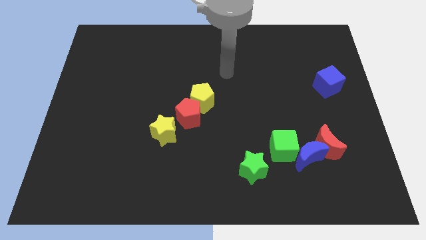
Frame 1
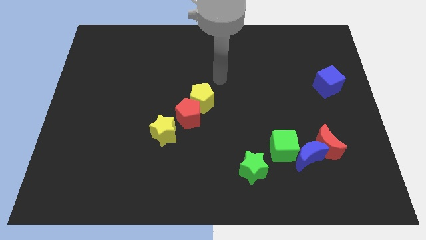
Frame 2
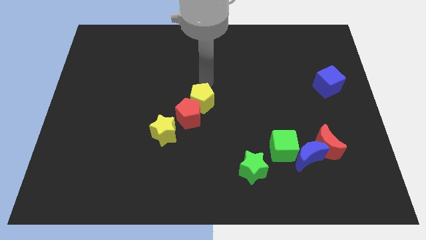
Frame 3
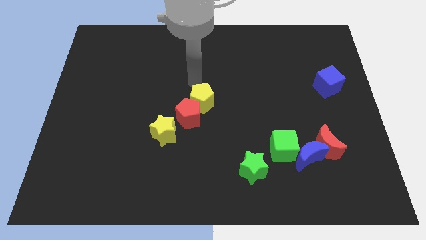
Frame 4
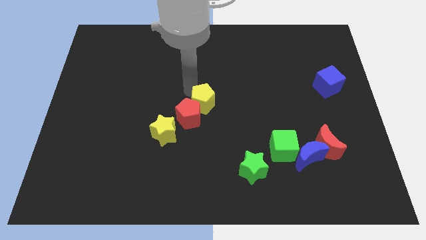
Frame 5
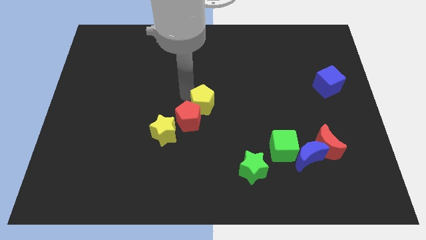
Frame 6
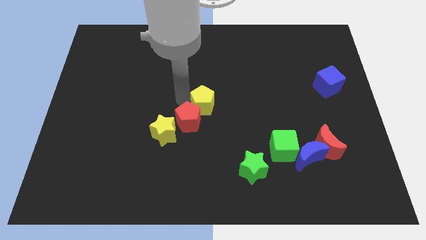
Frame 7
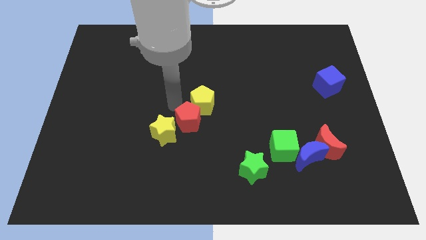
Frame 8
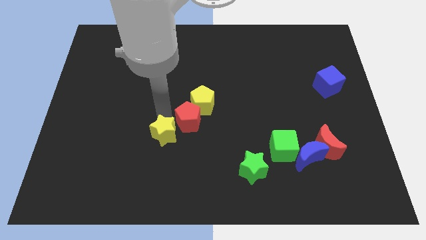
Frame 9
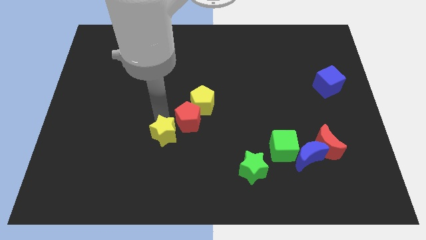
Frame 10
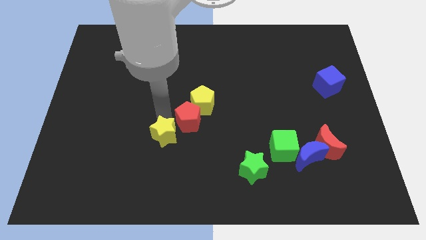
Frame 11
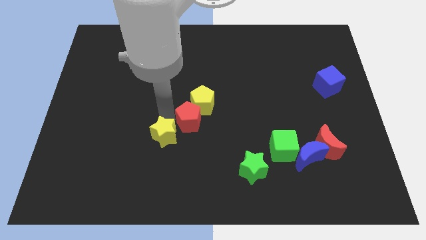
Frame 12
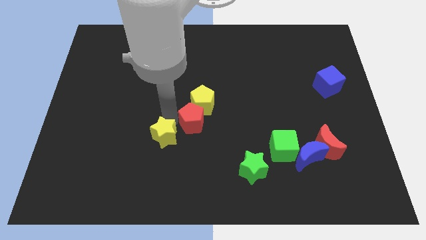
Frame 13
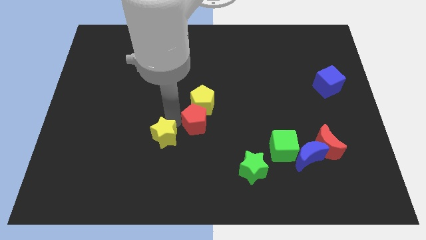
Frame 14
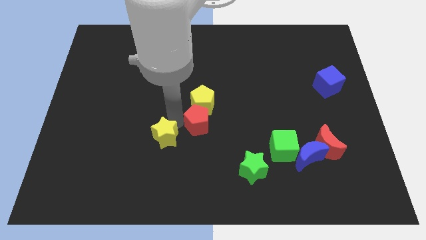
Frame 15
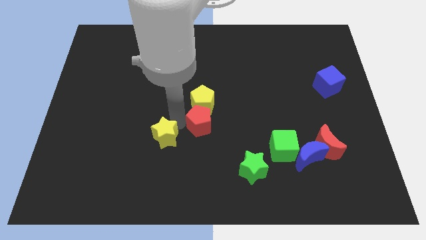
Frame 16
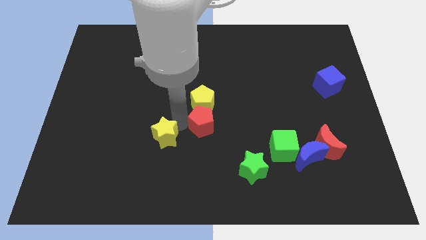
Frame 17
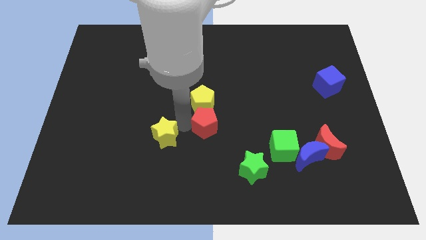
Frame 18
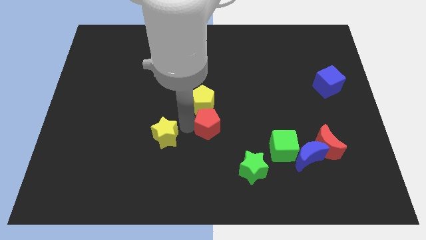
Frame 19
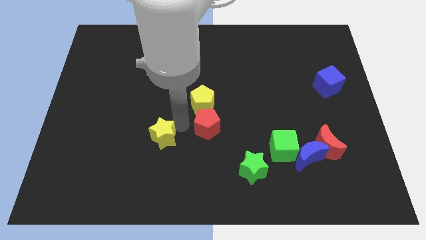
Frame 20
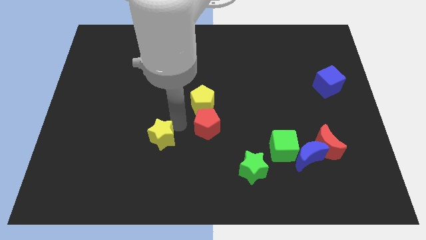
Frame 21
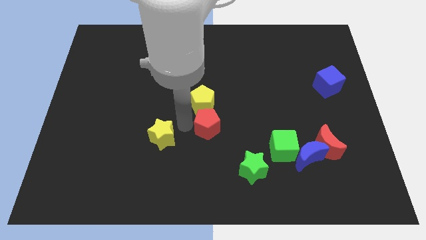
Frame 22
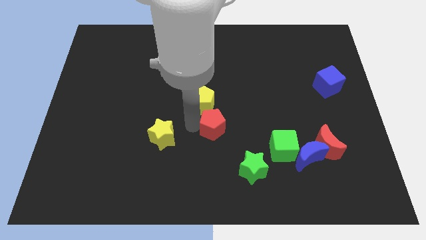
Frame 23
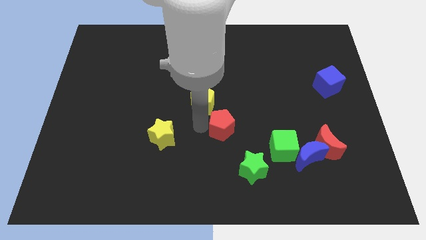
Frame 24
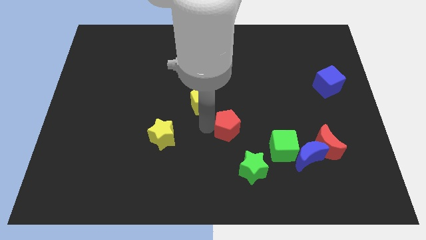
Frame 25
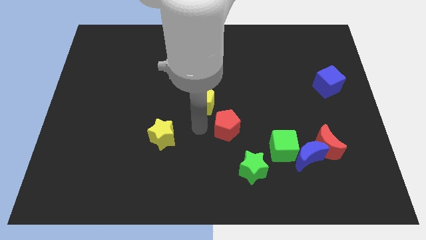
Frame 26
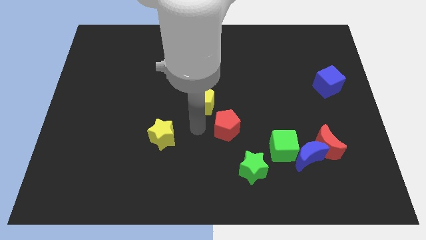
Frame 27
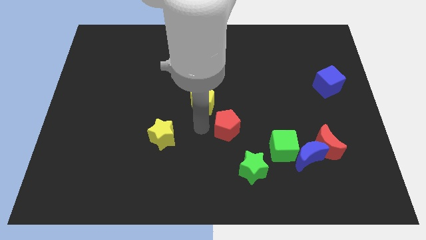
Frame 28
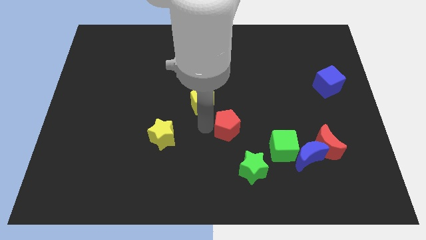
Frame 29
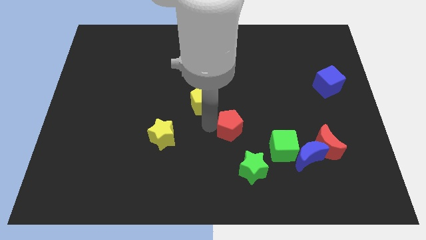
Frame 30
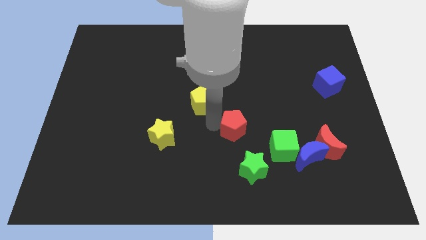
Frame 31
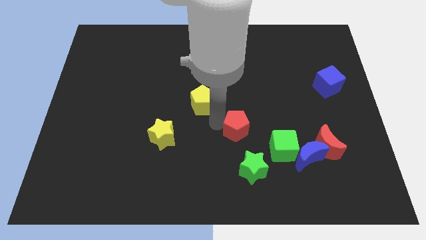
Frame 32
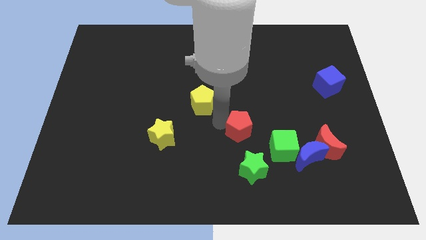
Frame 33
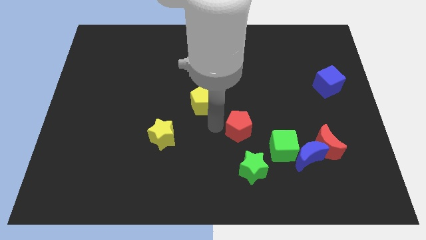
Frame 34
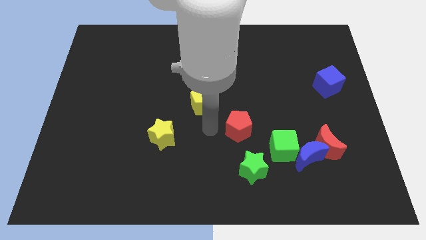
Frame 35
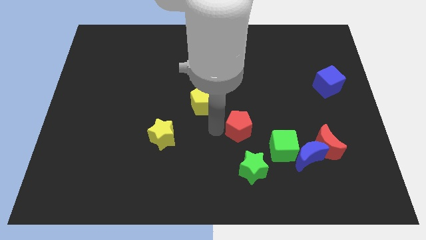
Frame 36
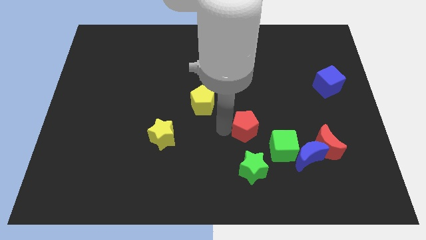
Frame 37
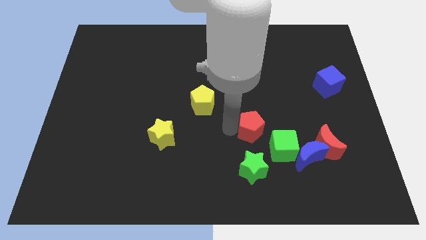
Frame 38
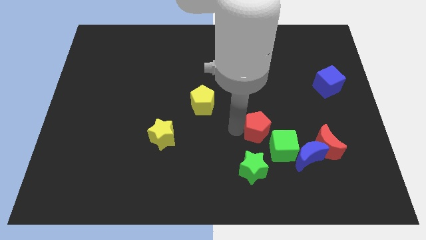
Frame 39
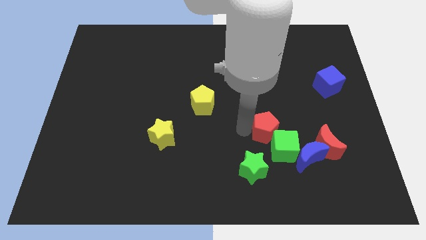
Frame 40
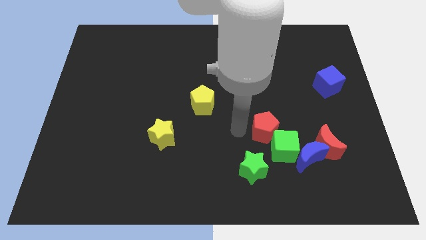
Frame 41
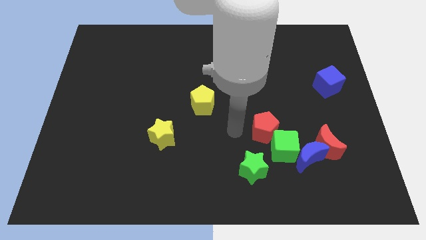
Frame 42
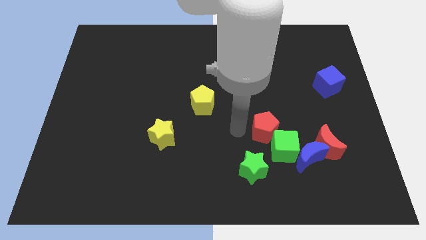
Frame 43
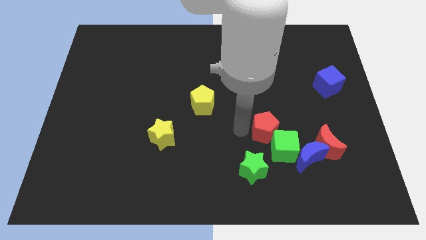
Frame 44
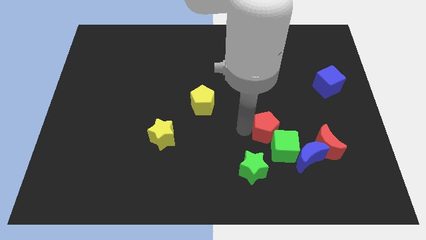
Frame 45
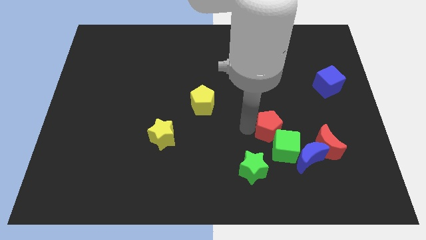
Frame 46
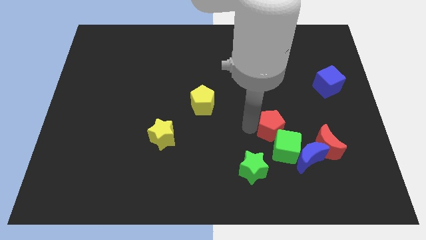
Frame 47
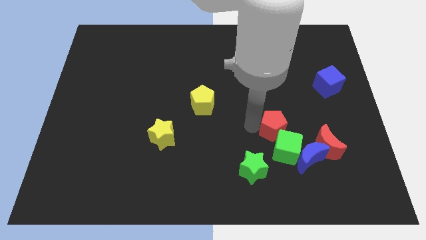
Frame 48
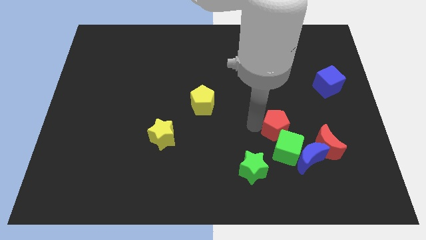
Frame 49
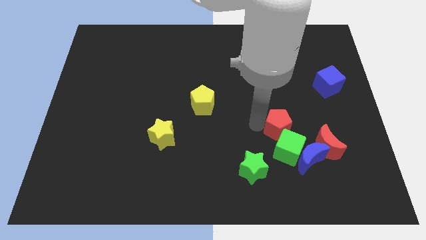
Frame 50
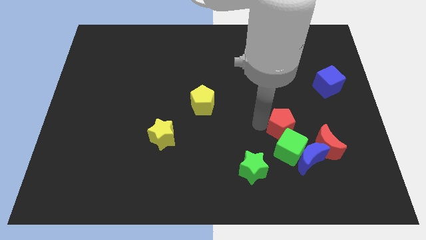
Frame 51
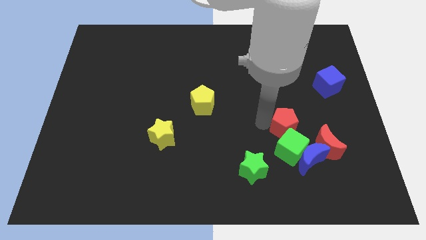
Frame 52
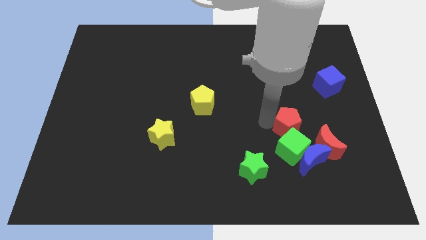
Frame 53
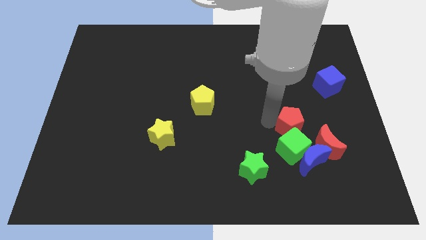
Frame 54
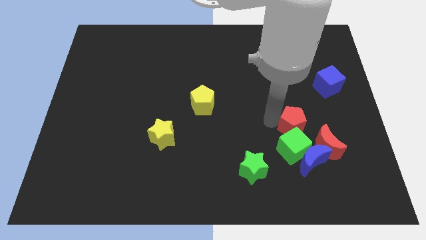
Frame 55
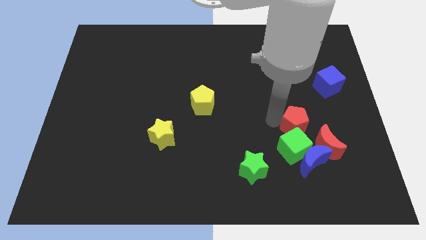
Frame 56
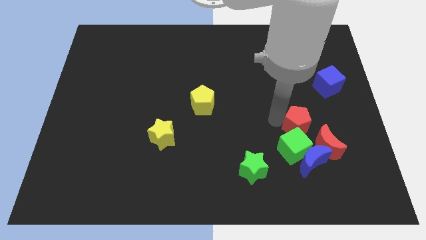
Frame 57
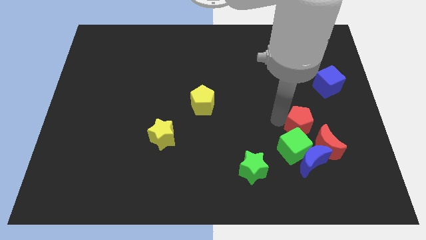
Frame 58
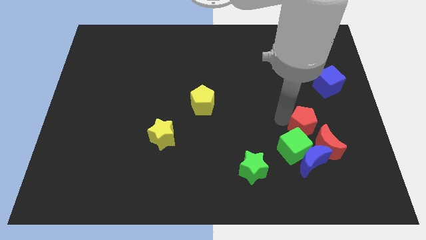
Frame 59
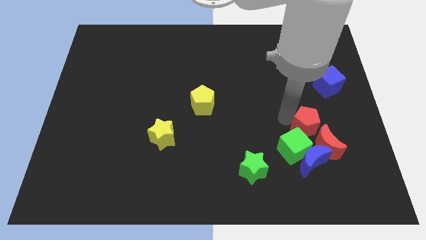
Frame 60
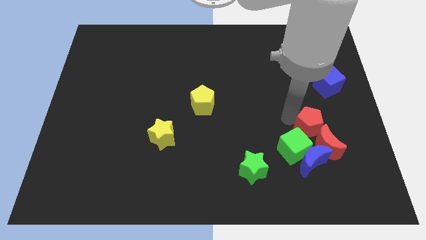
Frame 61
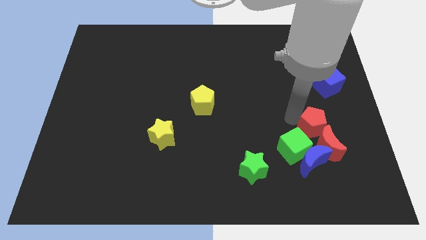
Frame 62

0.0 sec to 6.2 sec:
slide the red pentagon towards the red moon
